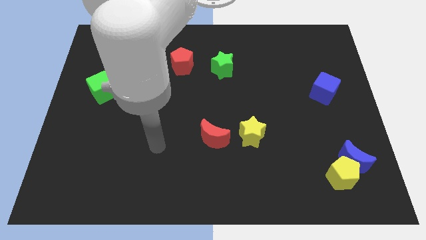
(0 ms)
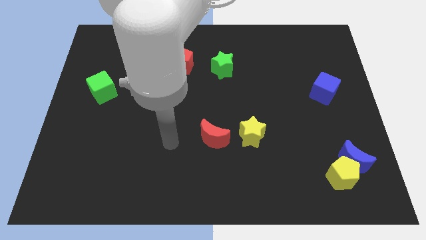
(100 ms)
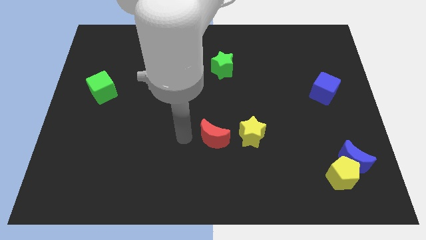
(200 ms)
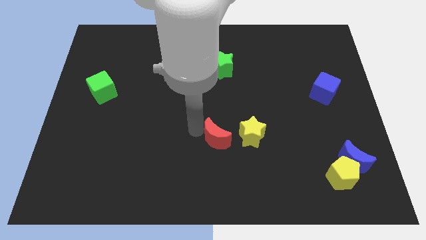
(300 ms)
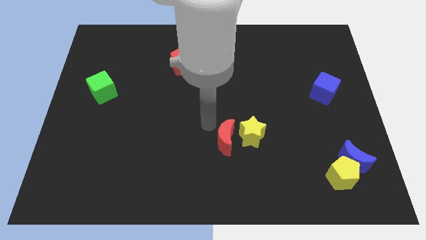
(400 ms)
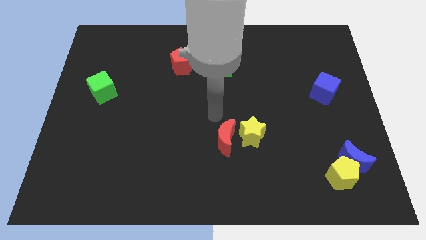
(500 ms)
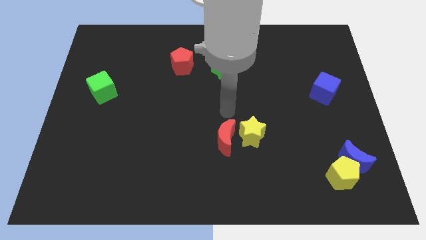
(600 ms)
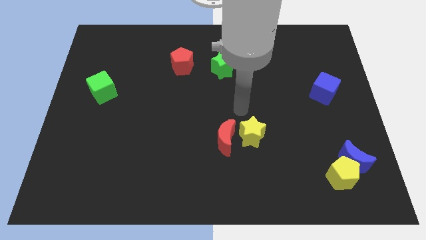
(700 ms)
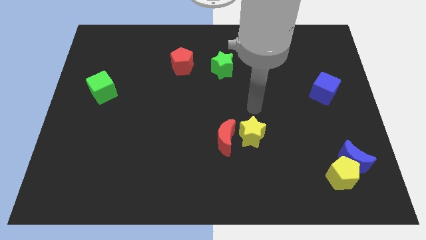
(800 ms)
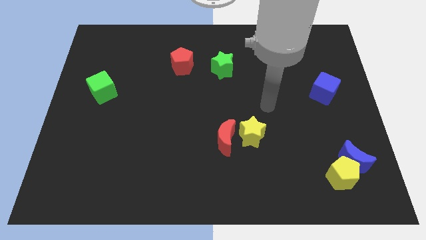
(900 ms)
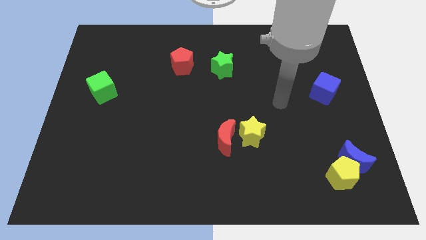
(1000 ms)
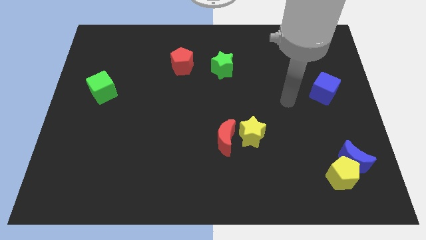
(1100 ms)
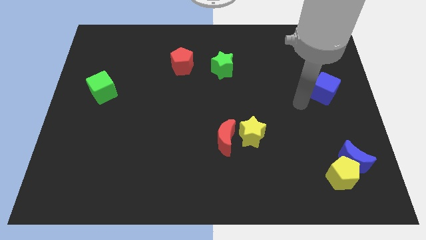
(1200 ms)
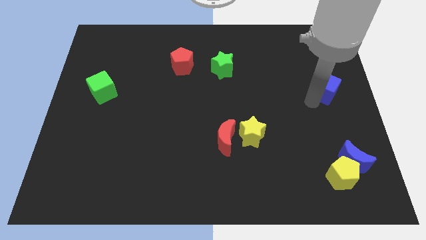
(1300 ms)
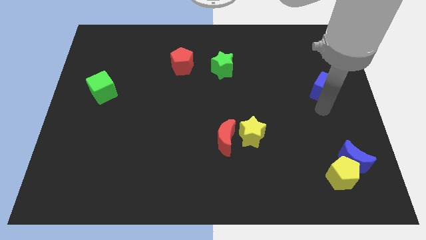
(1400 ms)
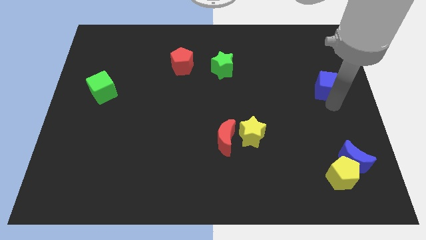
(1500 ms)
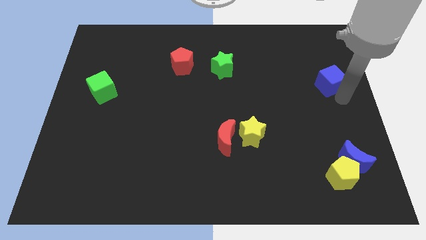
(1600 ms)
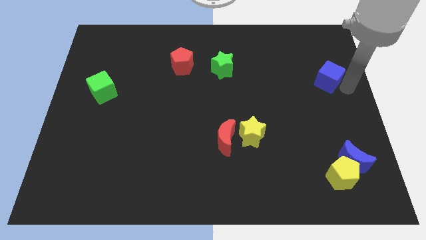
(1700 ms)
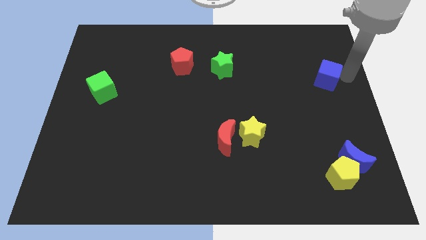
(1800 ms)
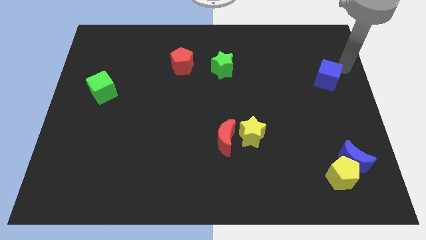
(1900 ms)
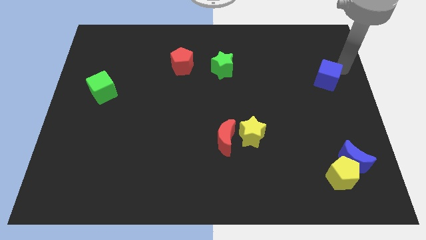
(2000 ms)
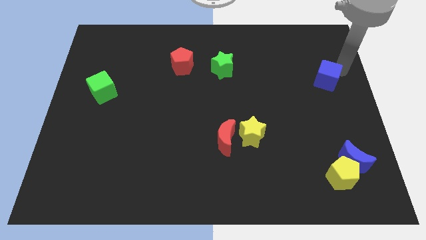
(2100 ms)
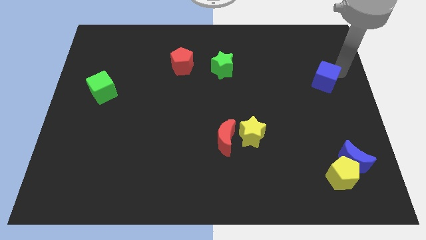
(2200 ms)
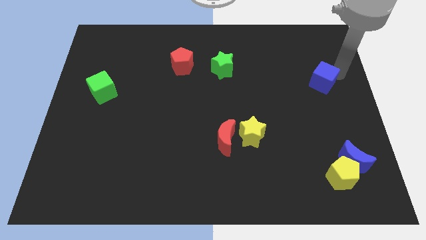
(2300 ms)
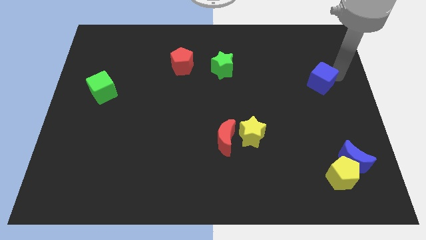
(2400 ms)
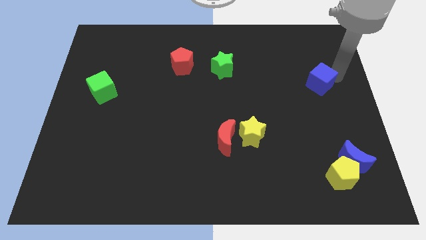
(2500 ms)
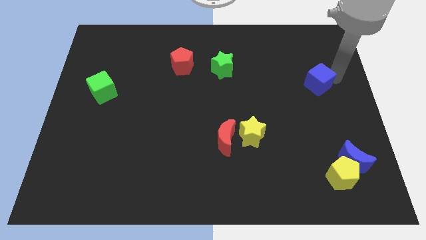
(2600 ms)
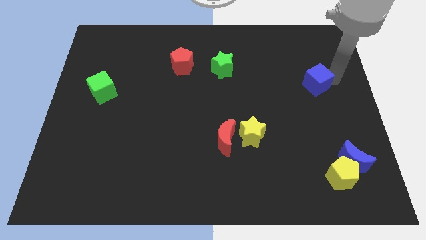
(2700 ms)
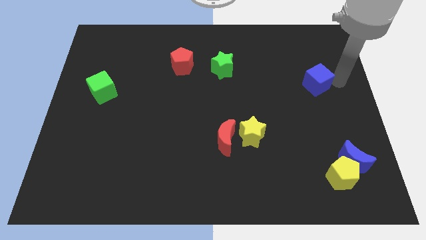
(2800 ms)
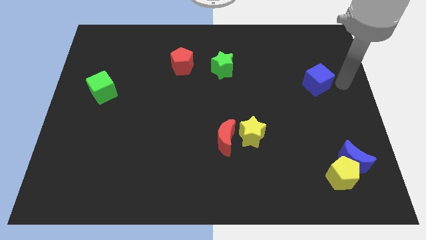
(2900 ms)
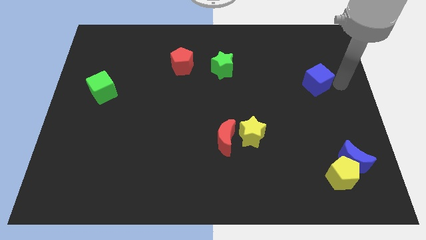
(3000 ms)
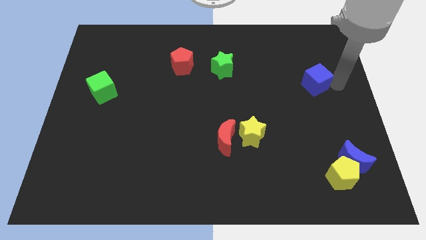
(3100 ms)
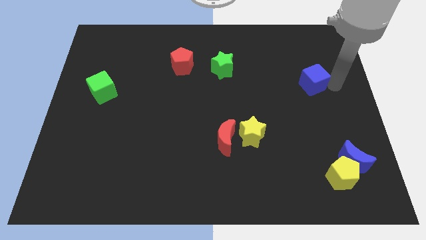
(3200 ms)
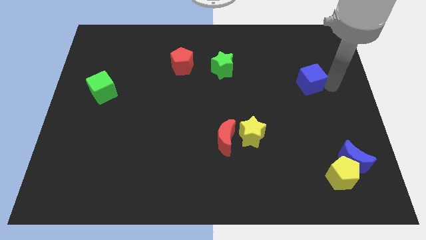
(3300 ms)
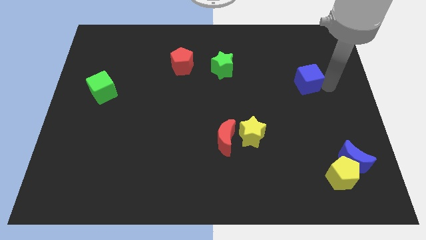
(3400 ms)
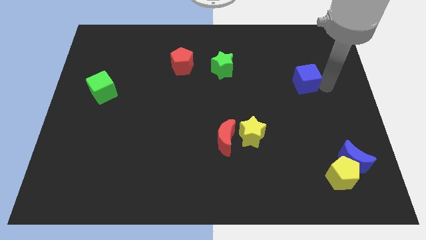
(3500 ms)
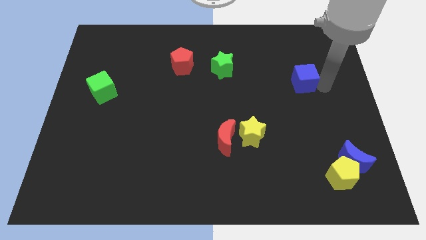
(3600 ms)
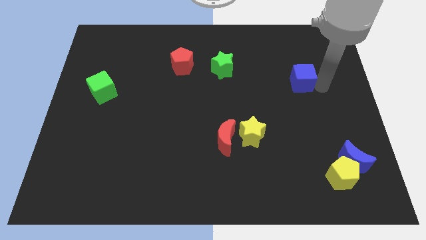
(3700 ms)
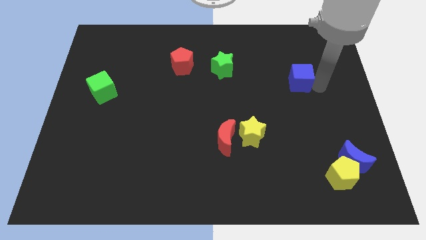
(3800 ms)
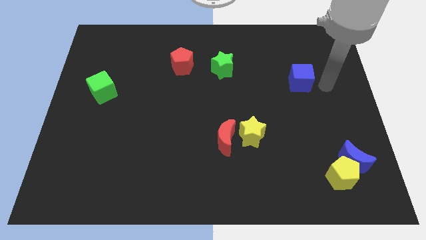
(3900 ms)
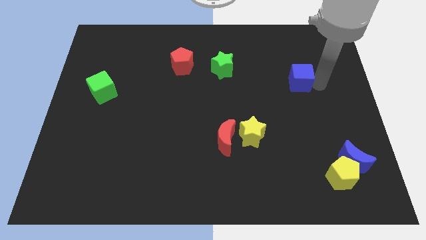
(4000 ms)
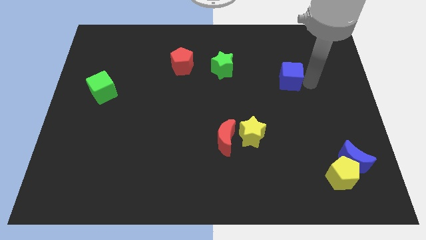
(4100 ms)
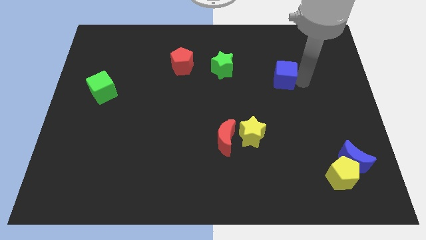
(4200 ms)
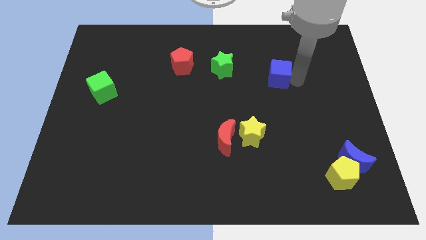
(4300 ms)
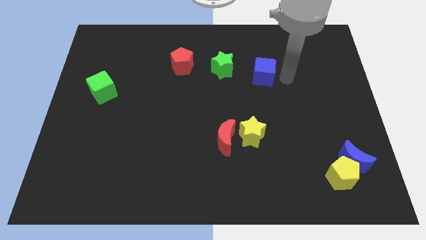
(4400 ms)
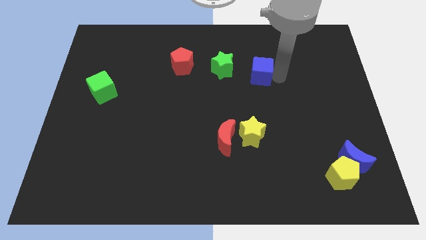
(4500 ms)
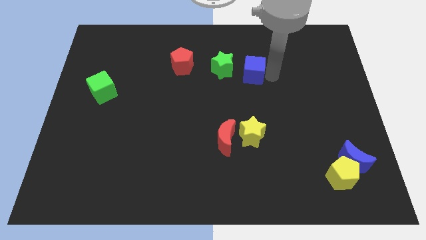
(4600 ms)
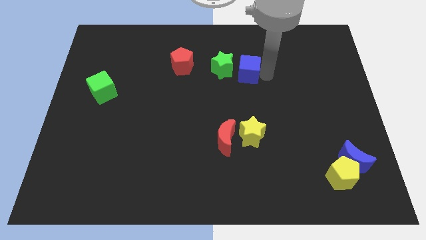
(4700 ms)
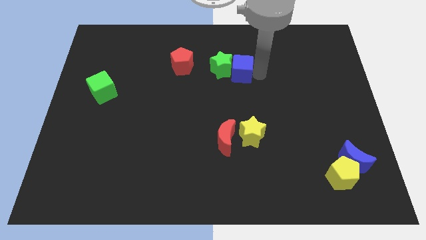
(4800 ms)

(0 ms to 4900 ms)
slide the blue cube close to the green star

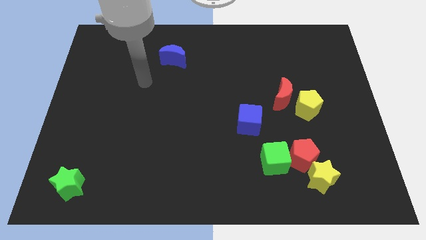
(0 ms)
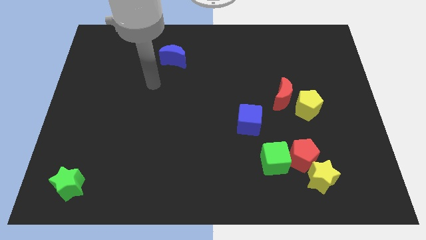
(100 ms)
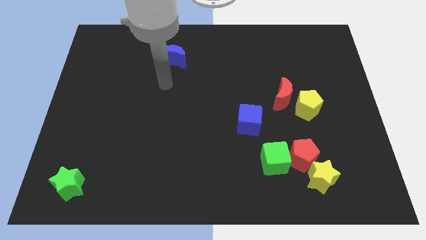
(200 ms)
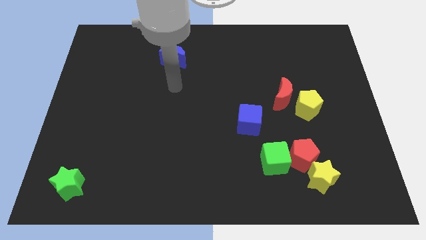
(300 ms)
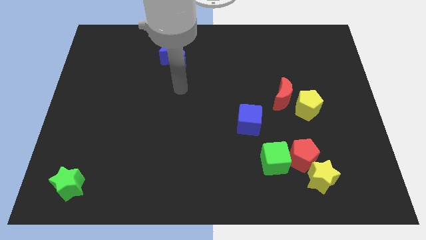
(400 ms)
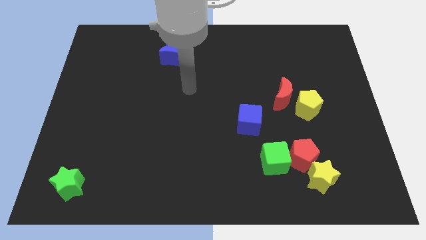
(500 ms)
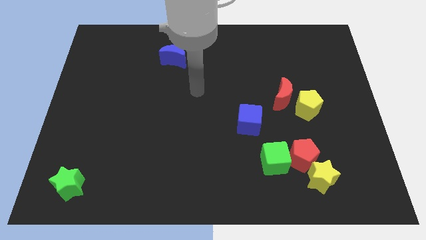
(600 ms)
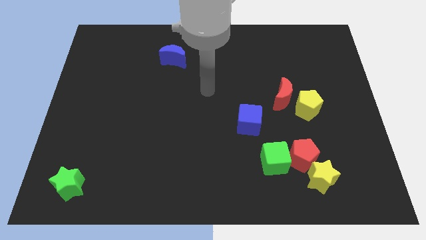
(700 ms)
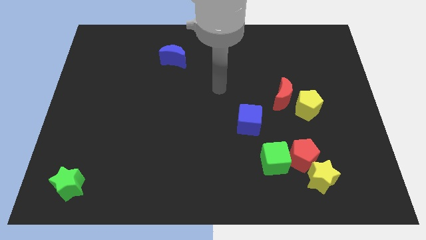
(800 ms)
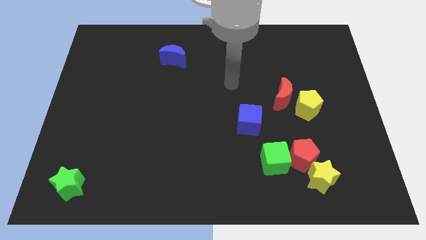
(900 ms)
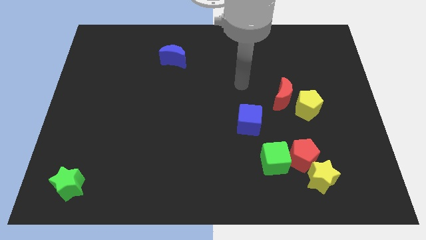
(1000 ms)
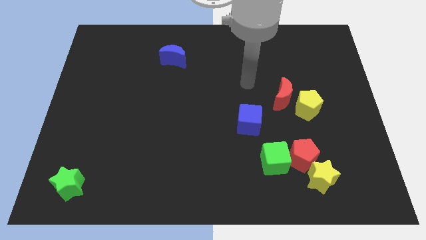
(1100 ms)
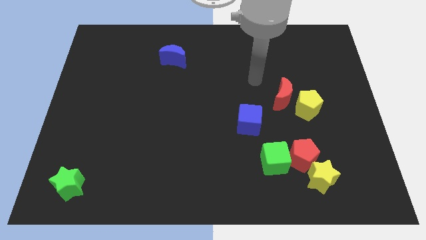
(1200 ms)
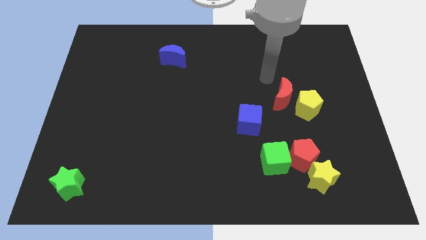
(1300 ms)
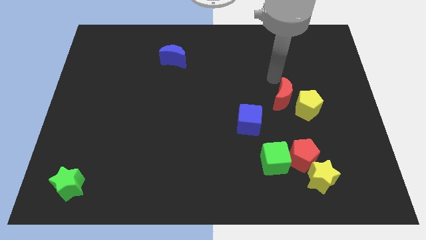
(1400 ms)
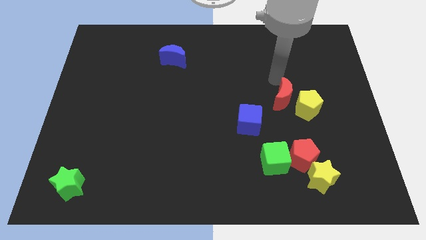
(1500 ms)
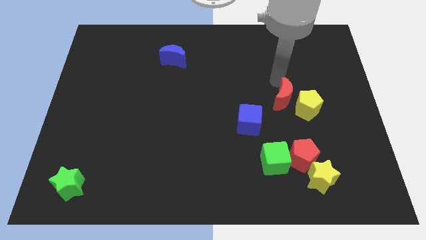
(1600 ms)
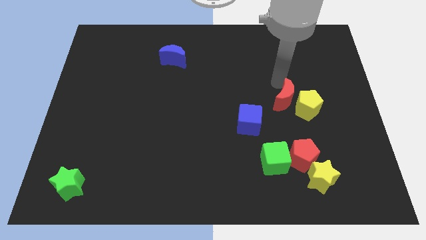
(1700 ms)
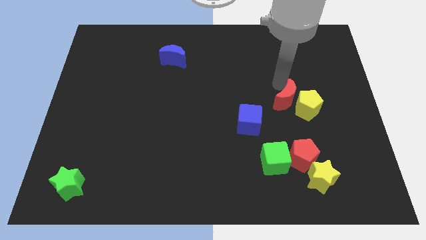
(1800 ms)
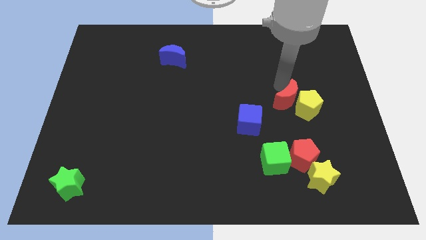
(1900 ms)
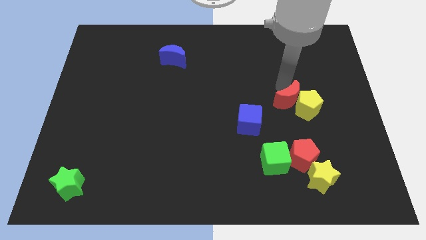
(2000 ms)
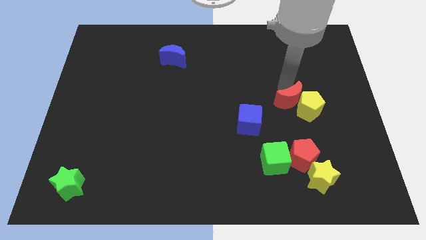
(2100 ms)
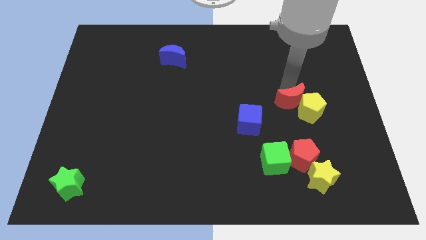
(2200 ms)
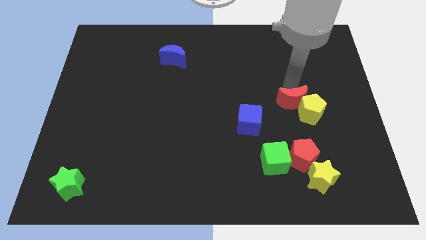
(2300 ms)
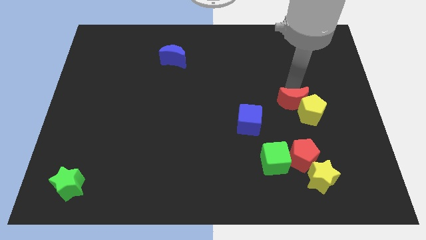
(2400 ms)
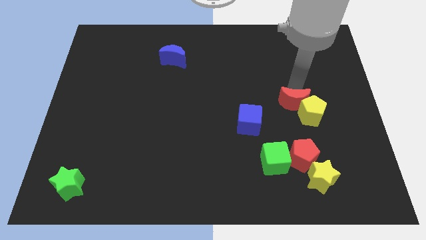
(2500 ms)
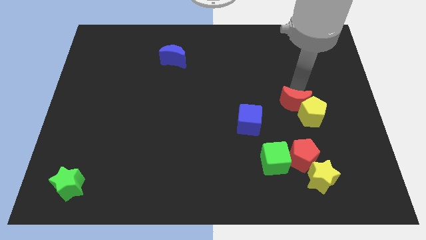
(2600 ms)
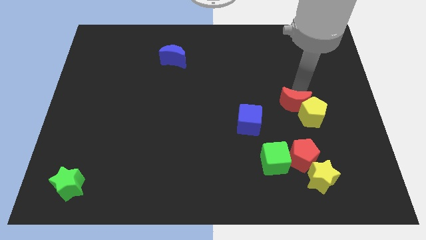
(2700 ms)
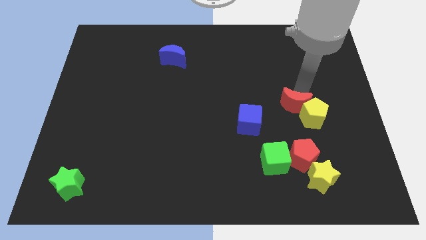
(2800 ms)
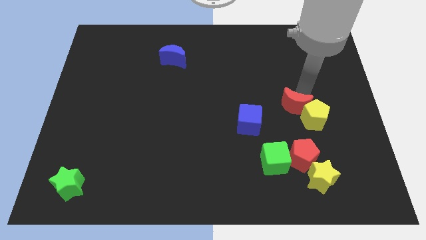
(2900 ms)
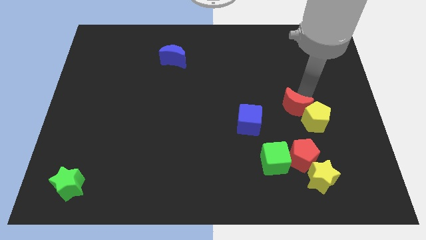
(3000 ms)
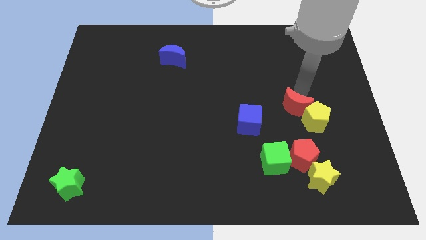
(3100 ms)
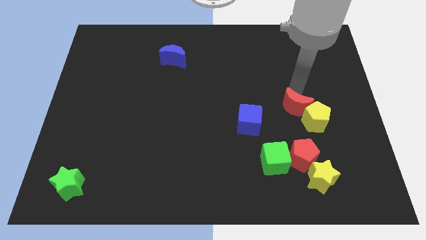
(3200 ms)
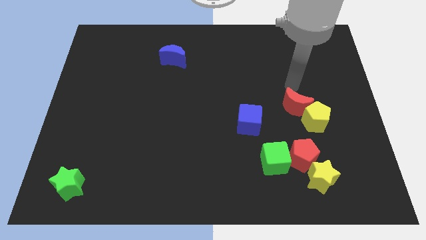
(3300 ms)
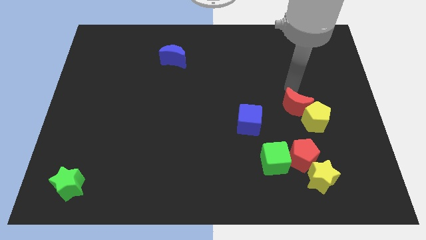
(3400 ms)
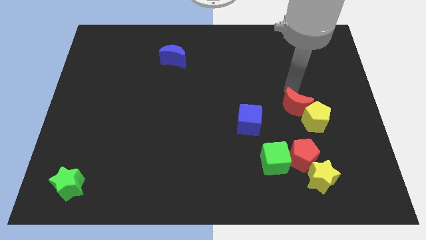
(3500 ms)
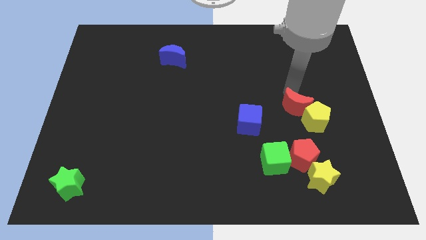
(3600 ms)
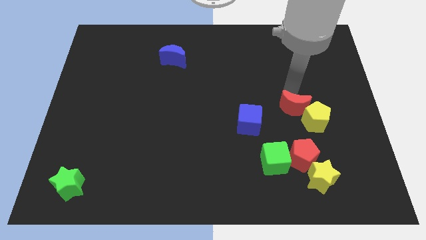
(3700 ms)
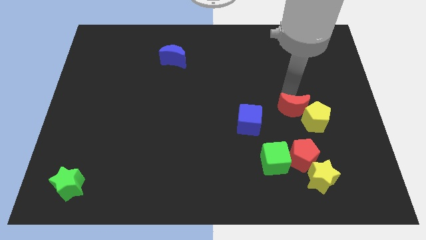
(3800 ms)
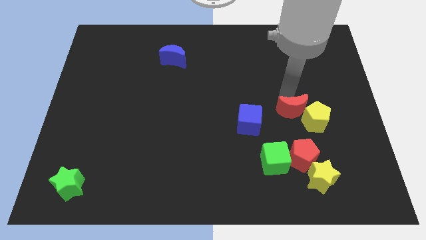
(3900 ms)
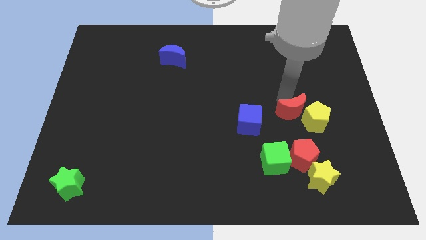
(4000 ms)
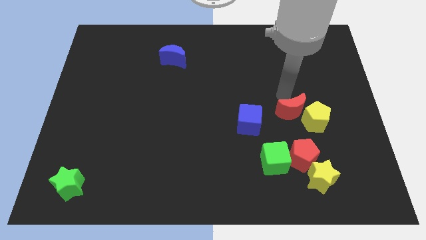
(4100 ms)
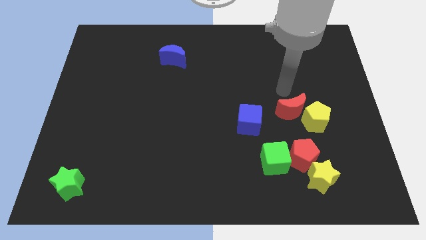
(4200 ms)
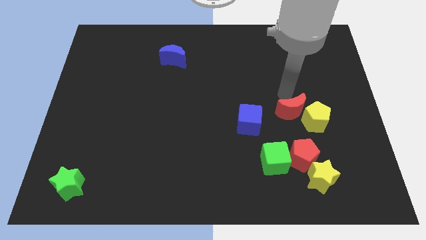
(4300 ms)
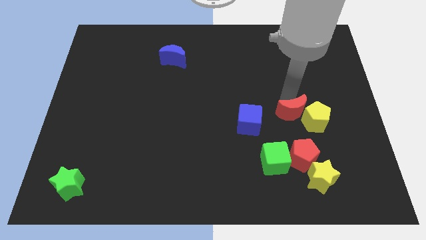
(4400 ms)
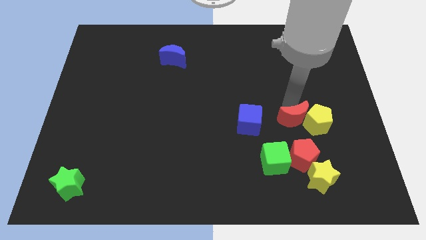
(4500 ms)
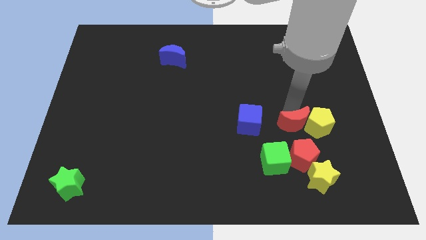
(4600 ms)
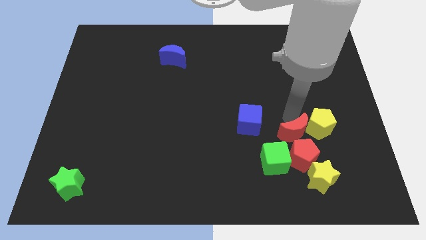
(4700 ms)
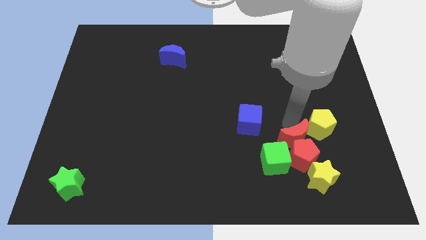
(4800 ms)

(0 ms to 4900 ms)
push the red moon close to the red pentagon
